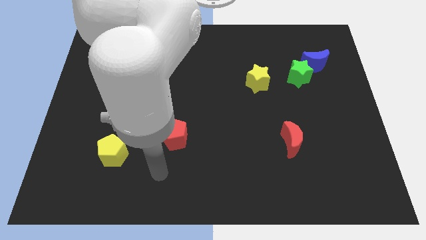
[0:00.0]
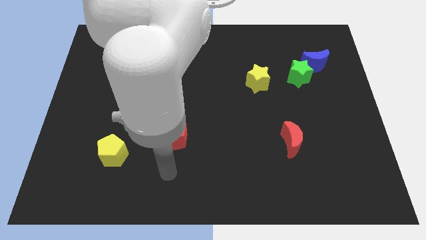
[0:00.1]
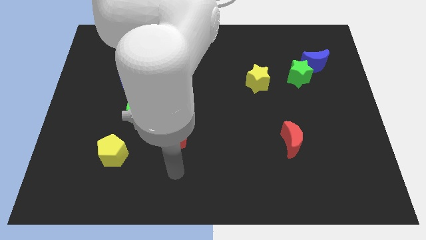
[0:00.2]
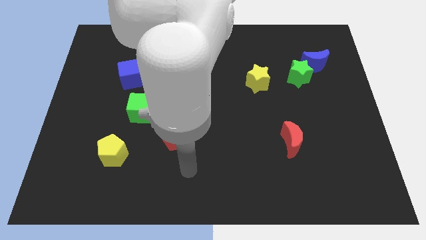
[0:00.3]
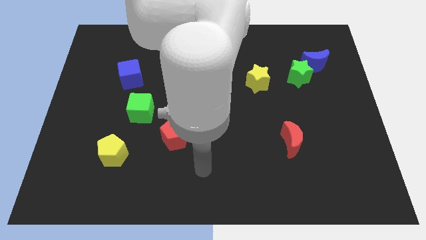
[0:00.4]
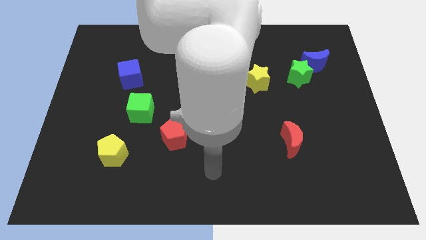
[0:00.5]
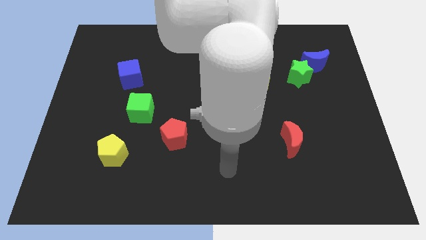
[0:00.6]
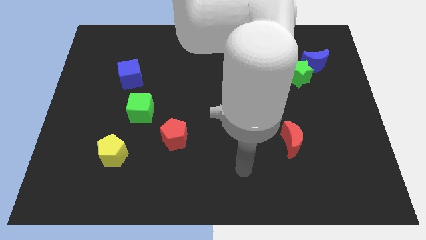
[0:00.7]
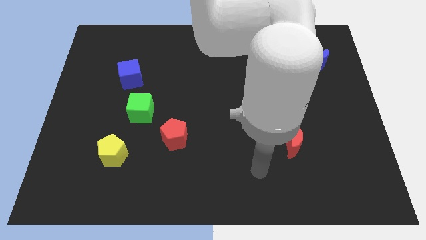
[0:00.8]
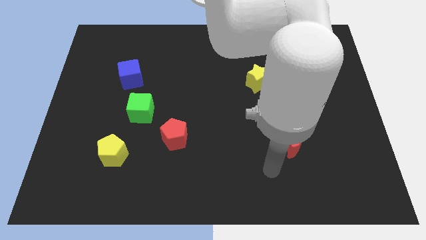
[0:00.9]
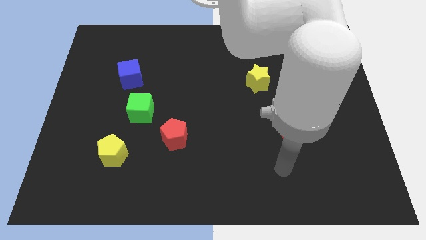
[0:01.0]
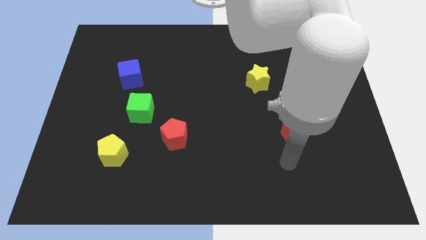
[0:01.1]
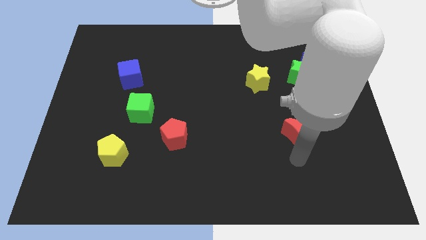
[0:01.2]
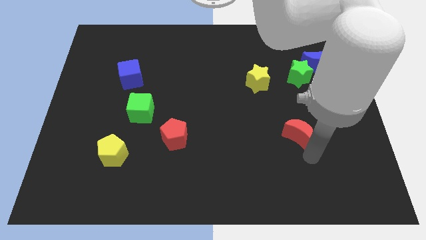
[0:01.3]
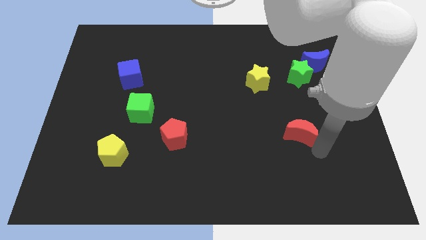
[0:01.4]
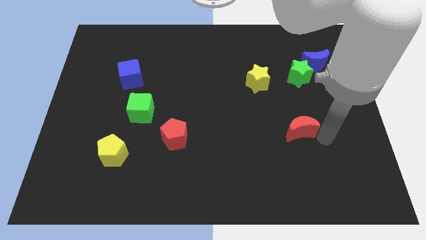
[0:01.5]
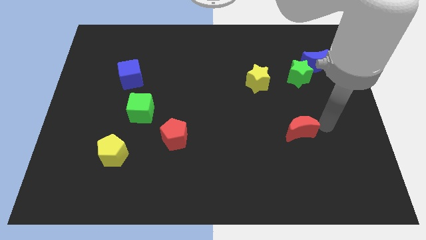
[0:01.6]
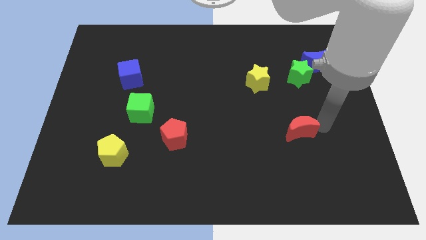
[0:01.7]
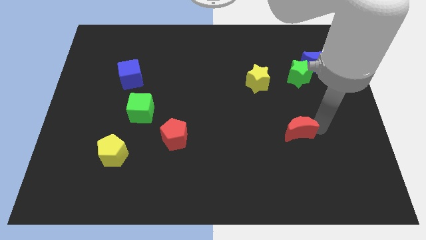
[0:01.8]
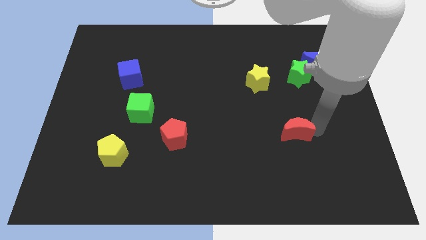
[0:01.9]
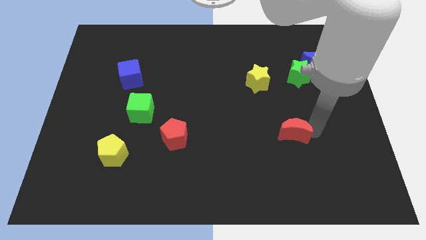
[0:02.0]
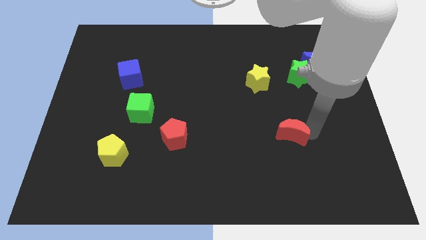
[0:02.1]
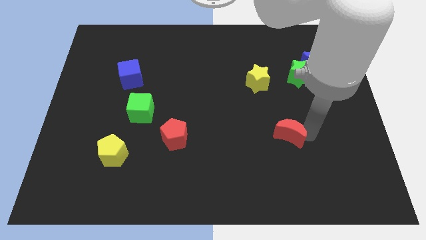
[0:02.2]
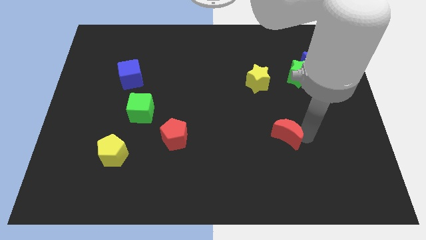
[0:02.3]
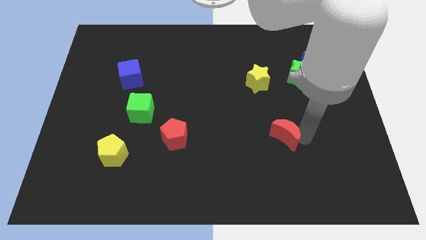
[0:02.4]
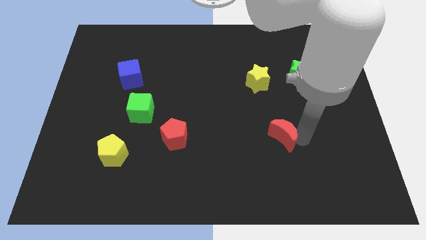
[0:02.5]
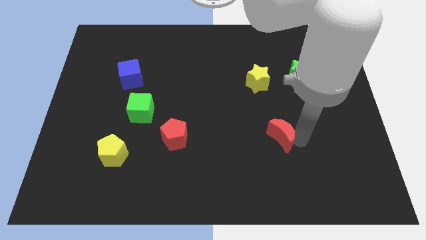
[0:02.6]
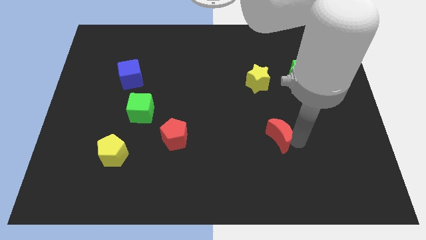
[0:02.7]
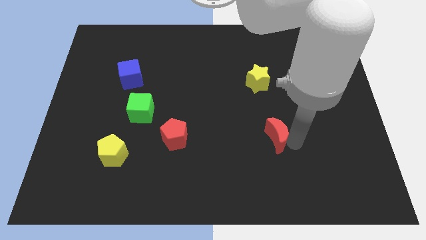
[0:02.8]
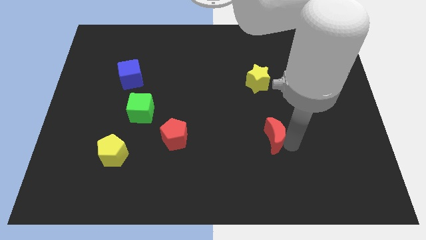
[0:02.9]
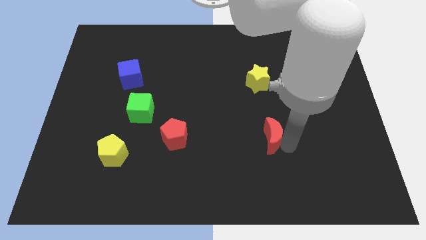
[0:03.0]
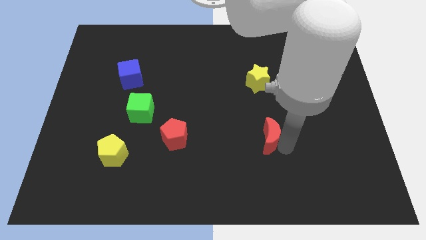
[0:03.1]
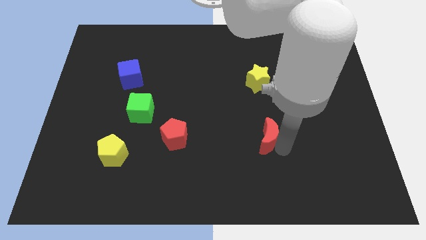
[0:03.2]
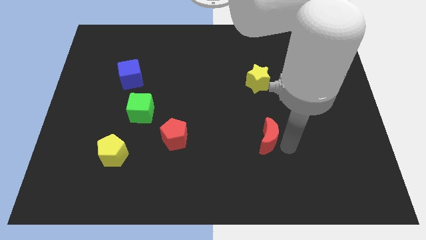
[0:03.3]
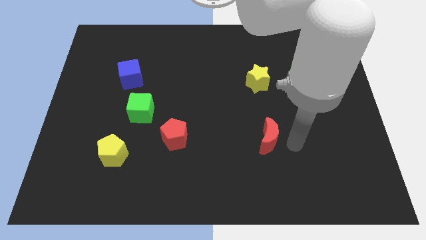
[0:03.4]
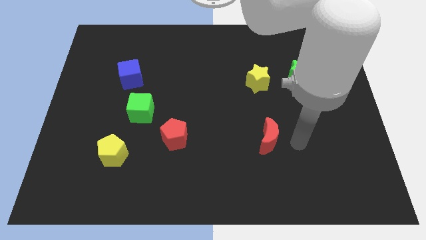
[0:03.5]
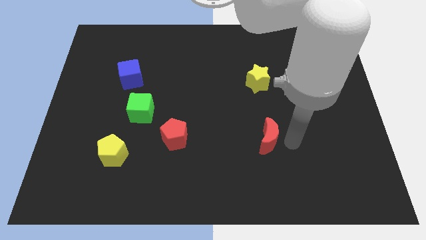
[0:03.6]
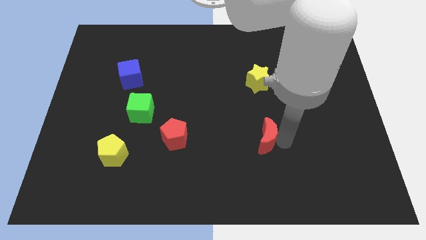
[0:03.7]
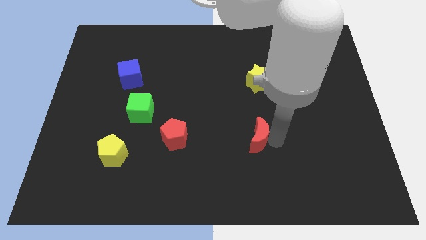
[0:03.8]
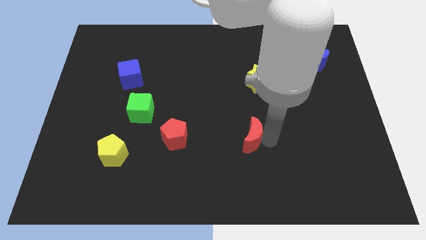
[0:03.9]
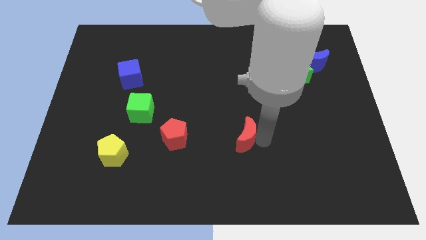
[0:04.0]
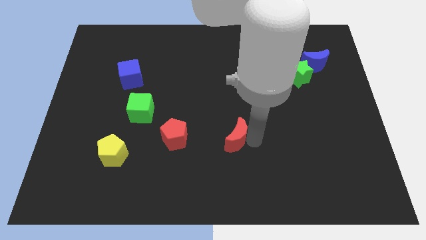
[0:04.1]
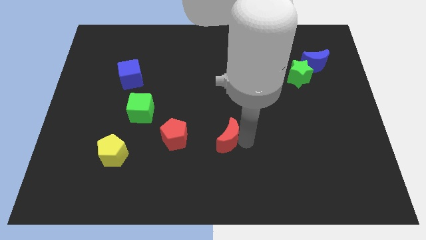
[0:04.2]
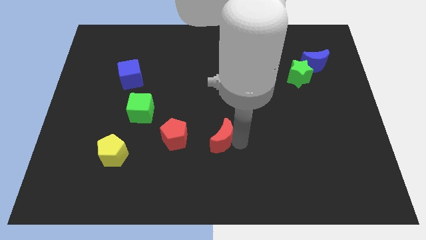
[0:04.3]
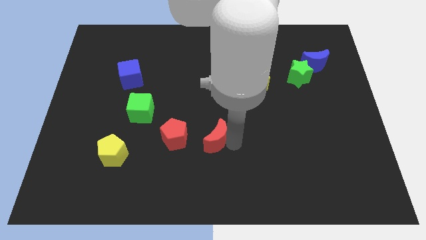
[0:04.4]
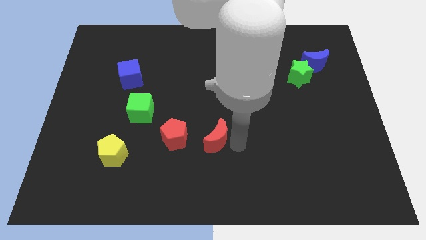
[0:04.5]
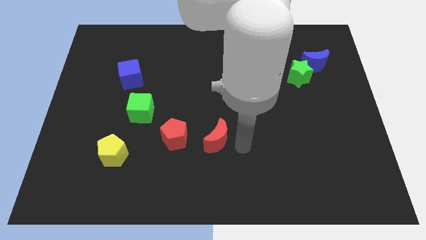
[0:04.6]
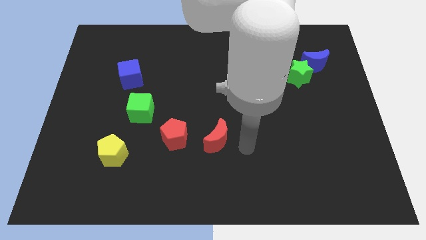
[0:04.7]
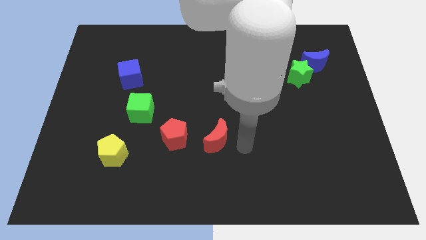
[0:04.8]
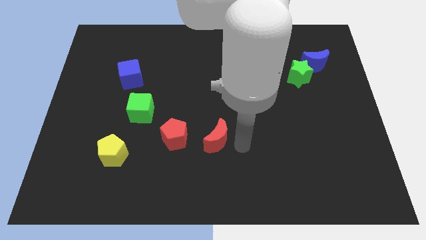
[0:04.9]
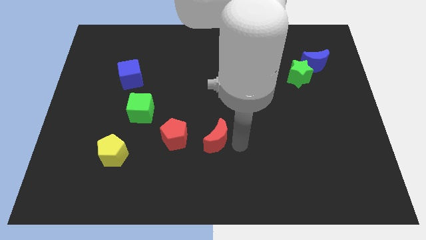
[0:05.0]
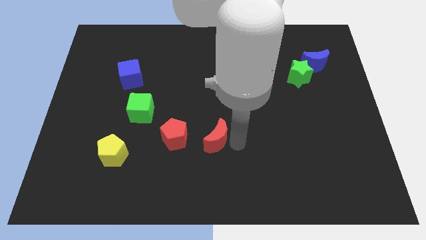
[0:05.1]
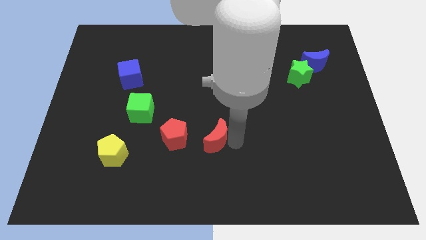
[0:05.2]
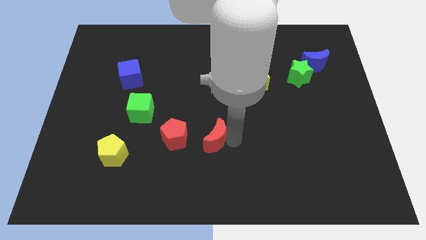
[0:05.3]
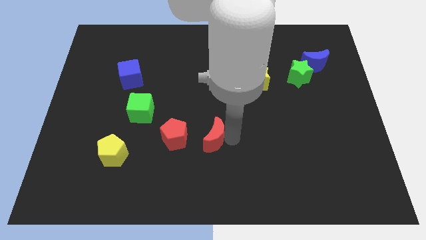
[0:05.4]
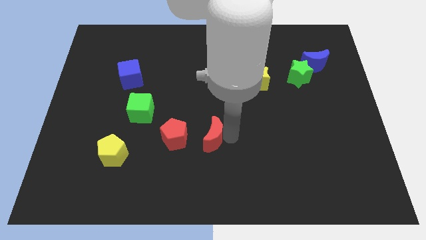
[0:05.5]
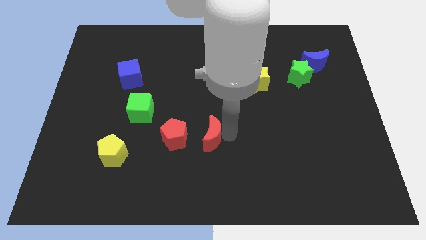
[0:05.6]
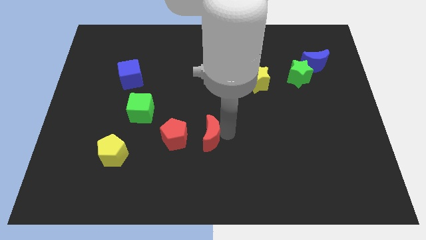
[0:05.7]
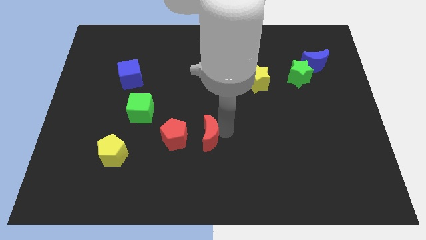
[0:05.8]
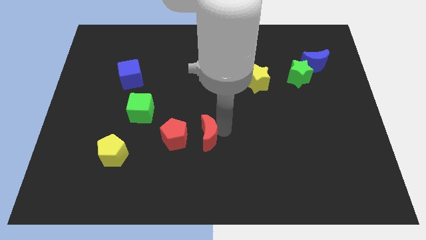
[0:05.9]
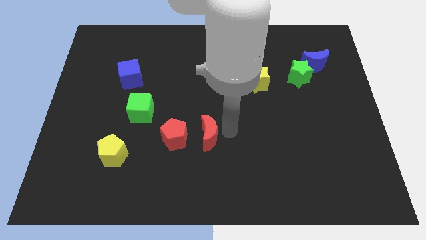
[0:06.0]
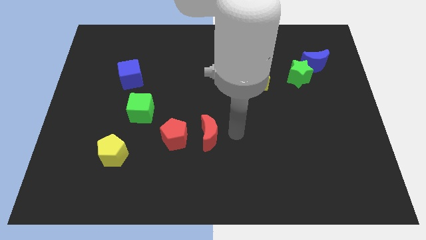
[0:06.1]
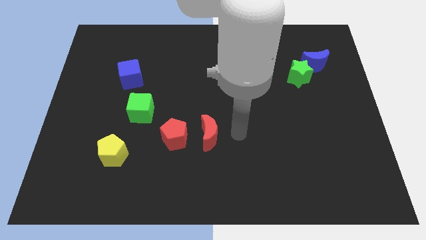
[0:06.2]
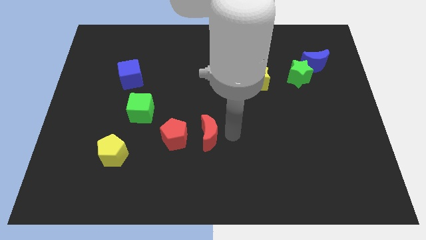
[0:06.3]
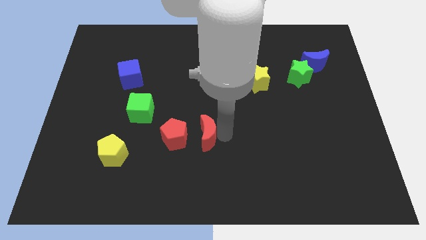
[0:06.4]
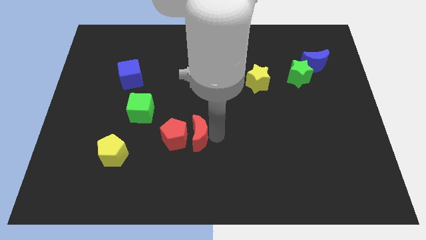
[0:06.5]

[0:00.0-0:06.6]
slide the red moon next to the red pentagon

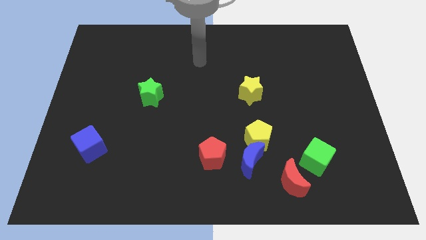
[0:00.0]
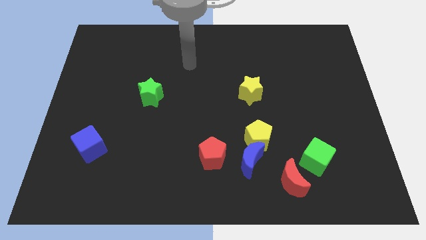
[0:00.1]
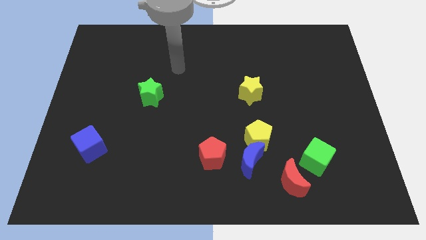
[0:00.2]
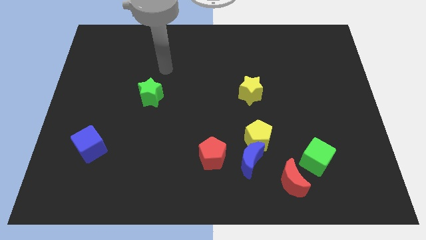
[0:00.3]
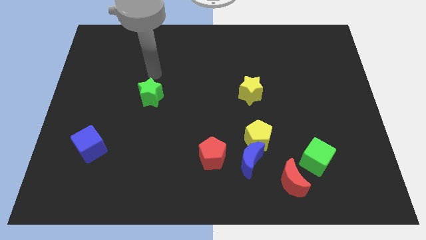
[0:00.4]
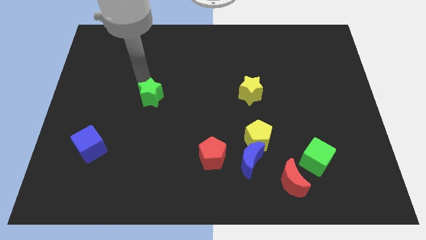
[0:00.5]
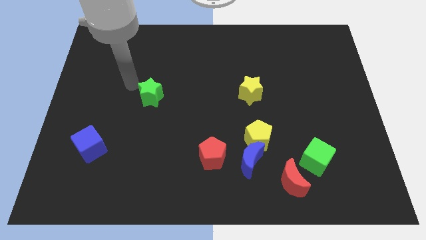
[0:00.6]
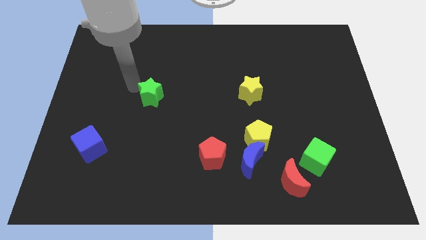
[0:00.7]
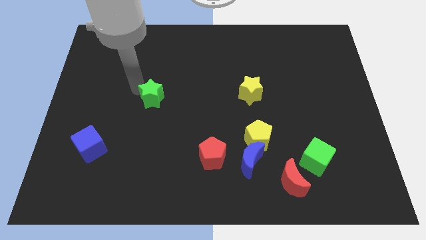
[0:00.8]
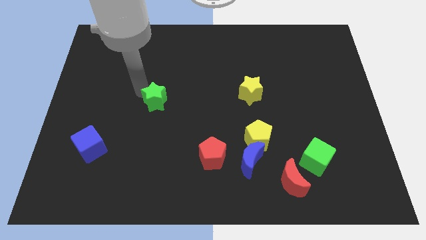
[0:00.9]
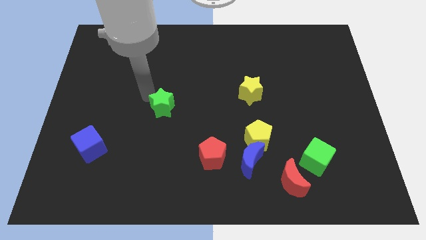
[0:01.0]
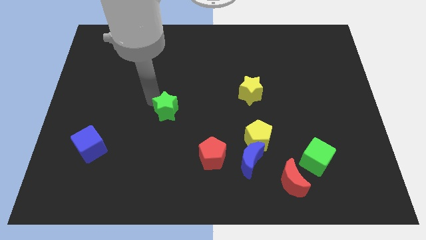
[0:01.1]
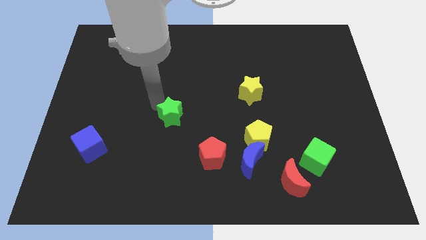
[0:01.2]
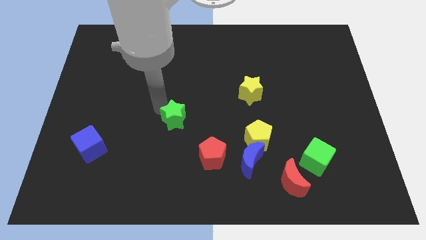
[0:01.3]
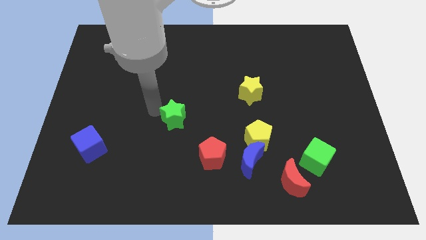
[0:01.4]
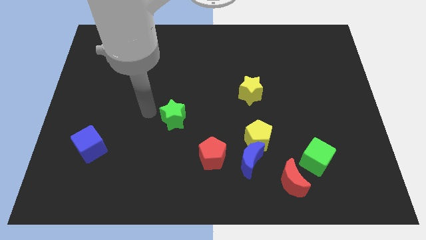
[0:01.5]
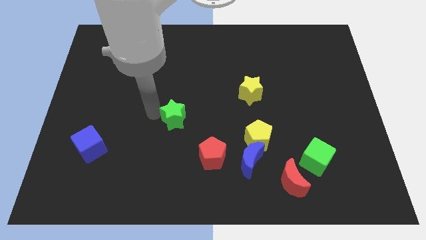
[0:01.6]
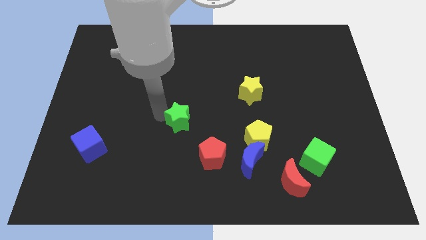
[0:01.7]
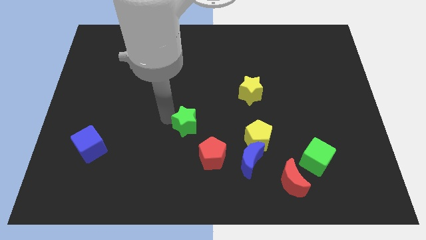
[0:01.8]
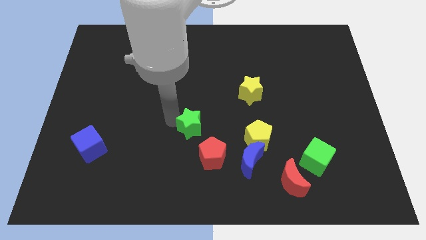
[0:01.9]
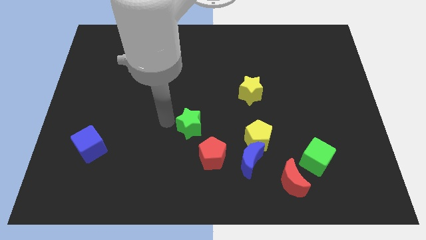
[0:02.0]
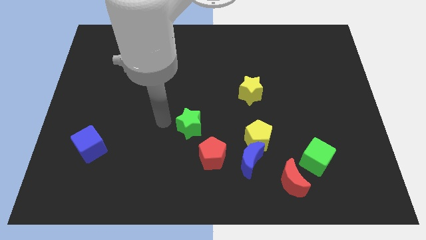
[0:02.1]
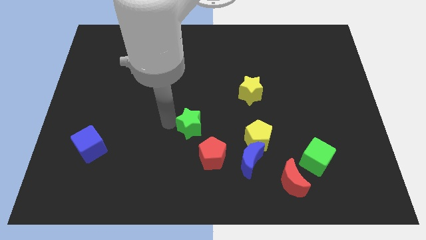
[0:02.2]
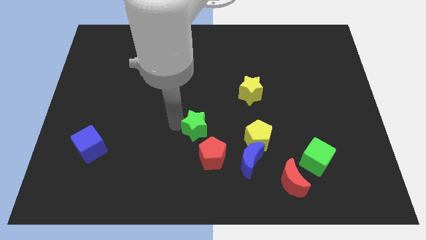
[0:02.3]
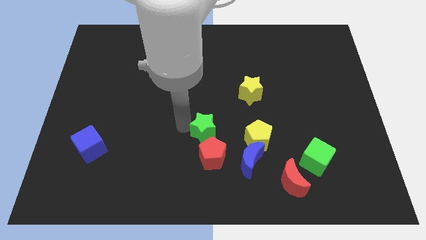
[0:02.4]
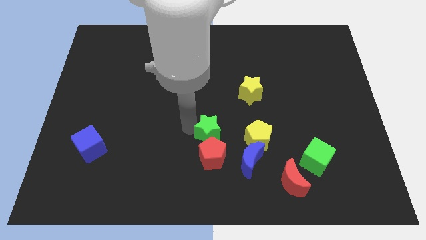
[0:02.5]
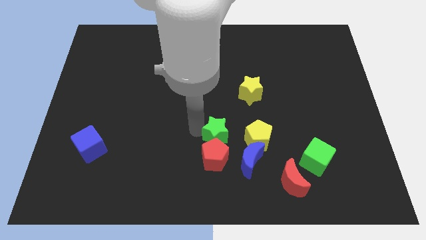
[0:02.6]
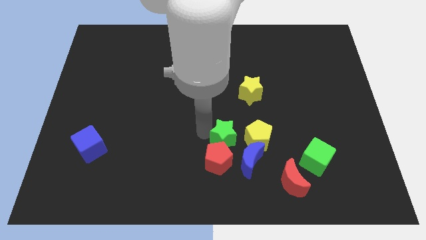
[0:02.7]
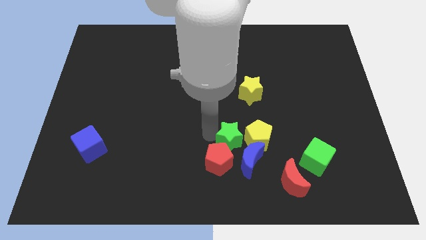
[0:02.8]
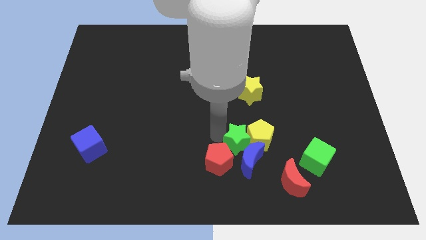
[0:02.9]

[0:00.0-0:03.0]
push the green star close to the blue moon
